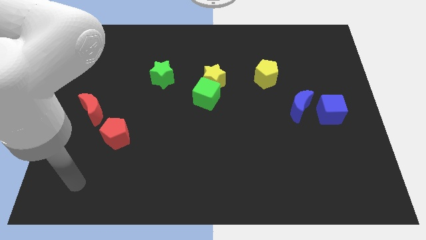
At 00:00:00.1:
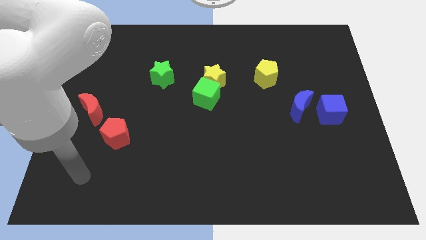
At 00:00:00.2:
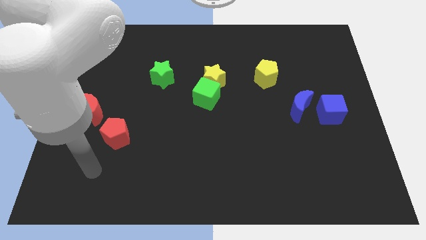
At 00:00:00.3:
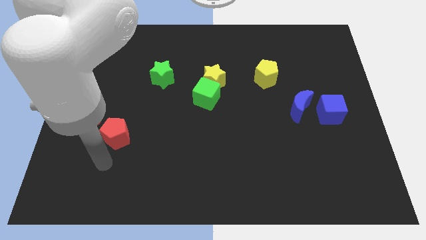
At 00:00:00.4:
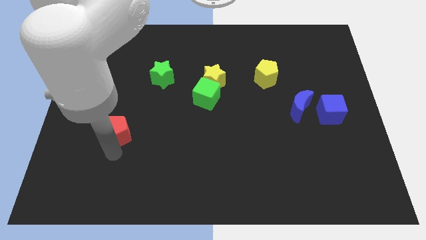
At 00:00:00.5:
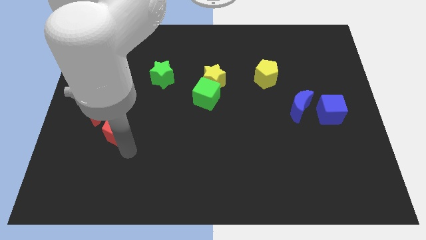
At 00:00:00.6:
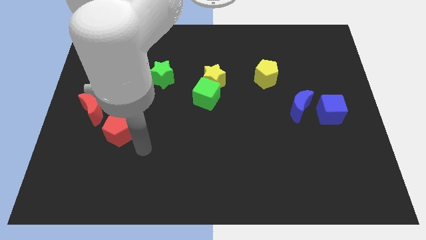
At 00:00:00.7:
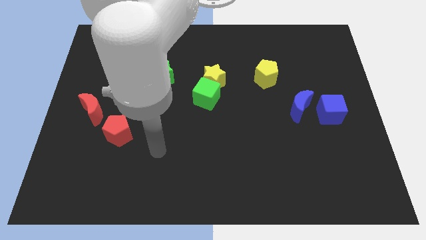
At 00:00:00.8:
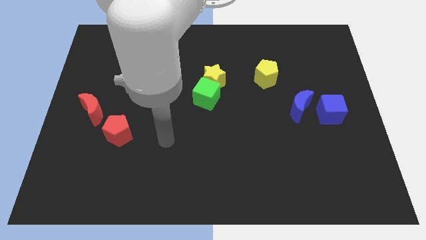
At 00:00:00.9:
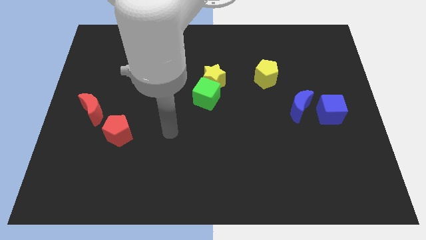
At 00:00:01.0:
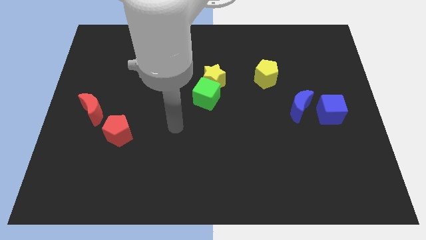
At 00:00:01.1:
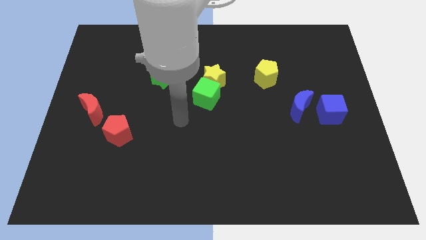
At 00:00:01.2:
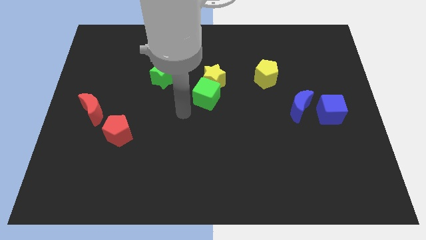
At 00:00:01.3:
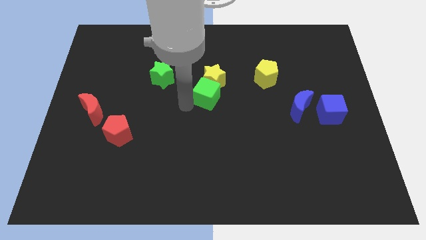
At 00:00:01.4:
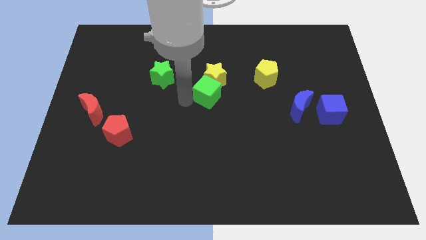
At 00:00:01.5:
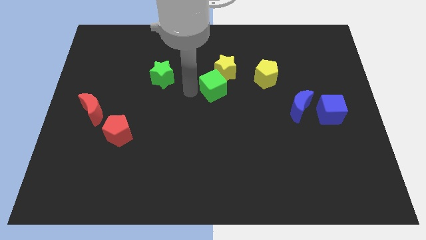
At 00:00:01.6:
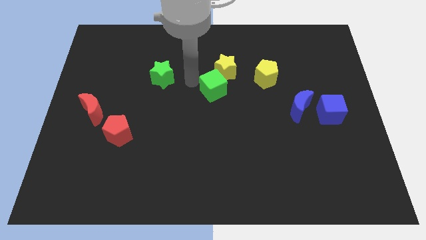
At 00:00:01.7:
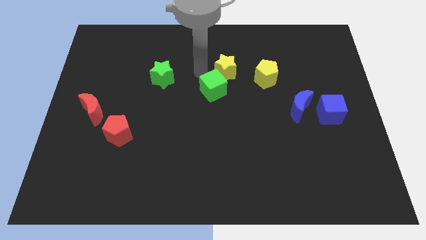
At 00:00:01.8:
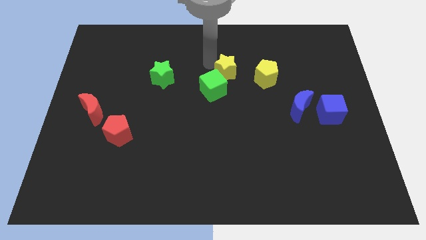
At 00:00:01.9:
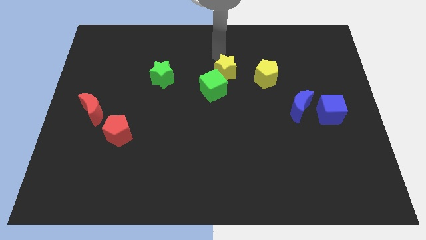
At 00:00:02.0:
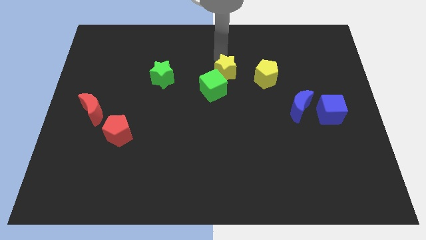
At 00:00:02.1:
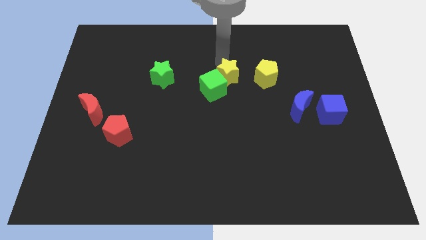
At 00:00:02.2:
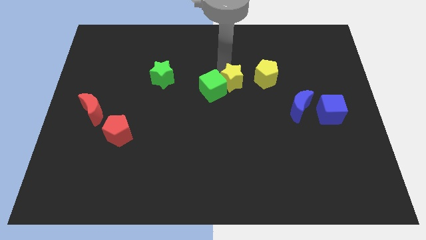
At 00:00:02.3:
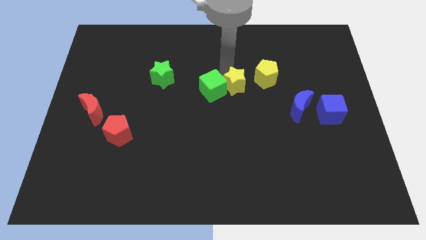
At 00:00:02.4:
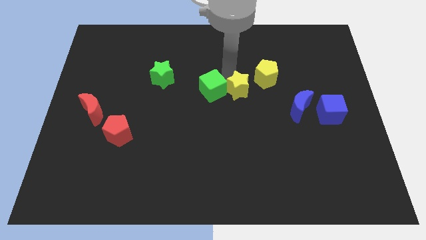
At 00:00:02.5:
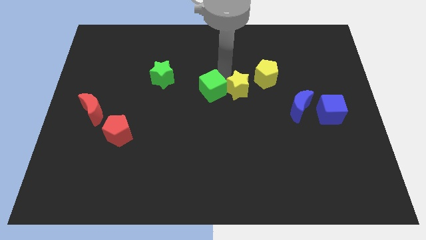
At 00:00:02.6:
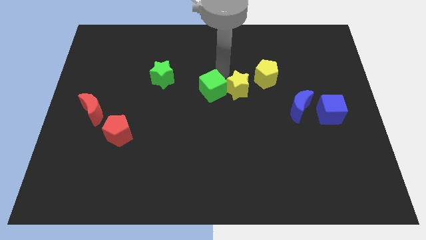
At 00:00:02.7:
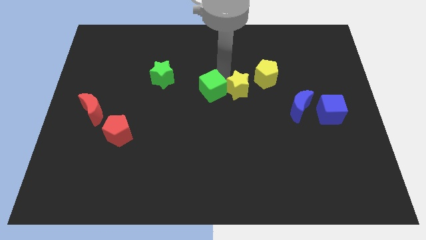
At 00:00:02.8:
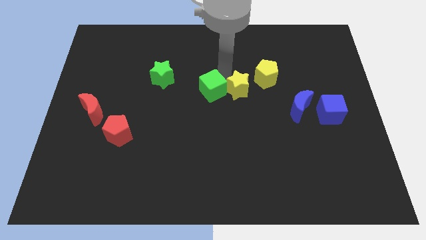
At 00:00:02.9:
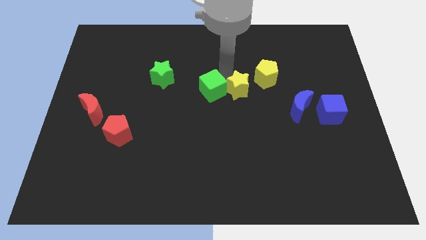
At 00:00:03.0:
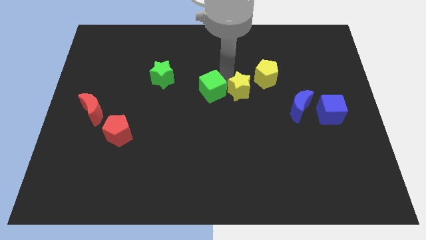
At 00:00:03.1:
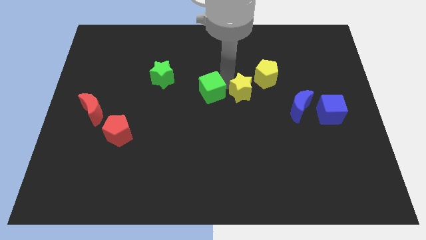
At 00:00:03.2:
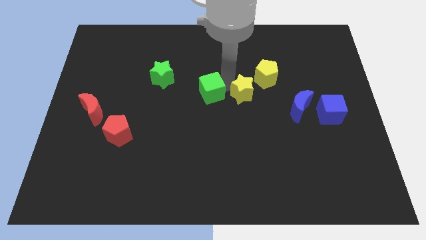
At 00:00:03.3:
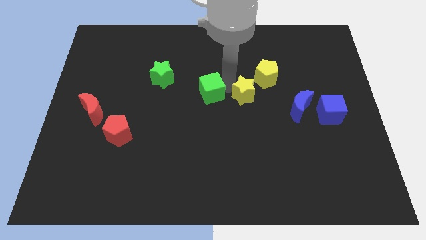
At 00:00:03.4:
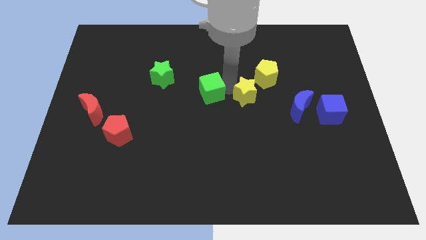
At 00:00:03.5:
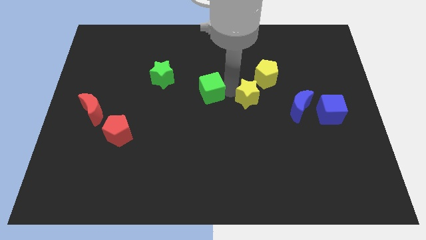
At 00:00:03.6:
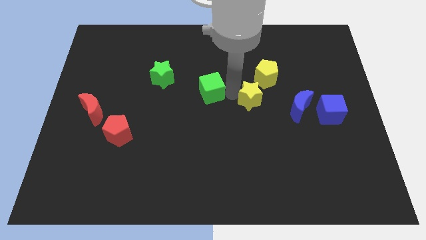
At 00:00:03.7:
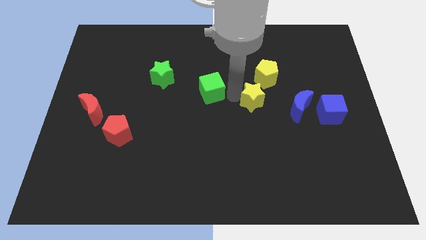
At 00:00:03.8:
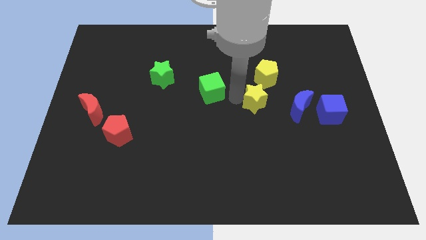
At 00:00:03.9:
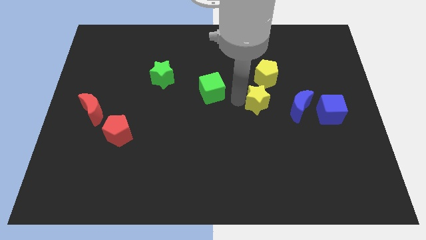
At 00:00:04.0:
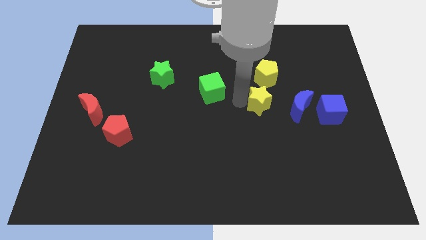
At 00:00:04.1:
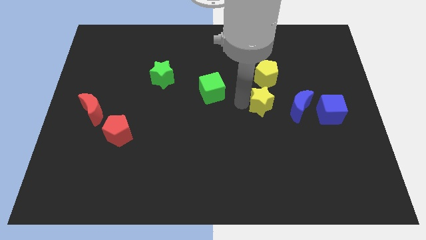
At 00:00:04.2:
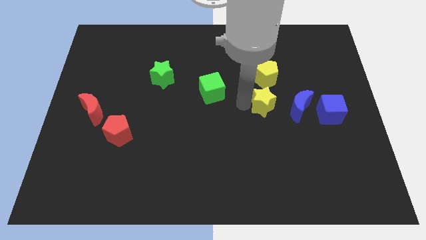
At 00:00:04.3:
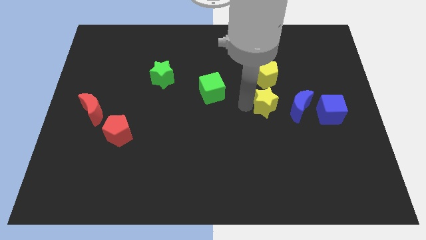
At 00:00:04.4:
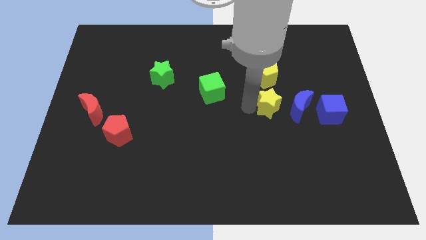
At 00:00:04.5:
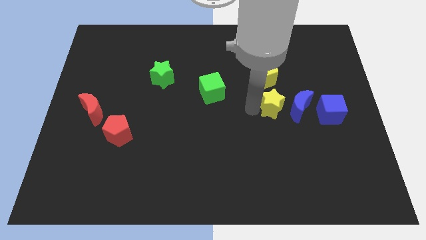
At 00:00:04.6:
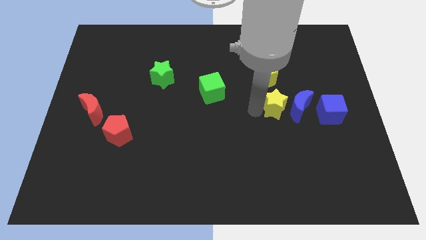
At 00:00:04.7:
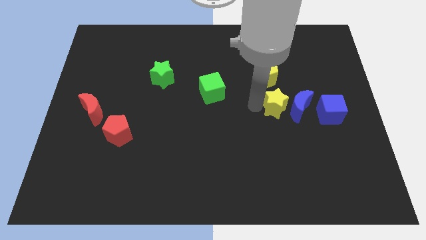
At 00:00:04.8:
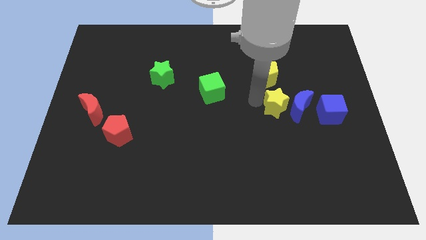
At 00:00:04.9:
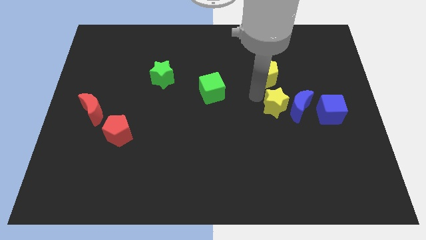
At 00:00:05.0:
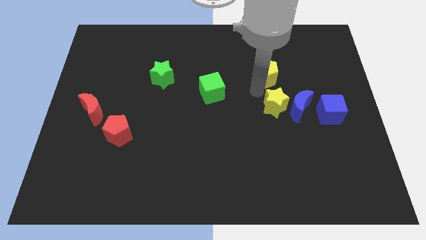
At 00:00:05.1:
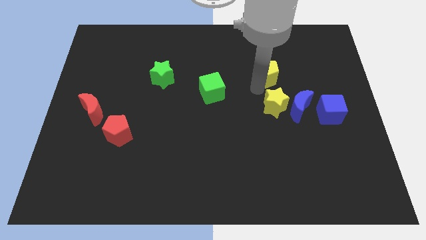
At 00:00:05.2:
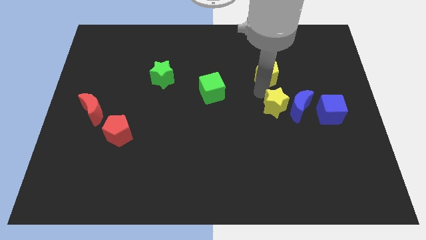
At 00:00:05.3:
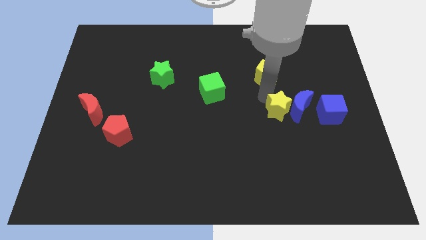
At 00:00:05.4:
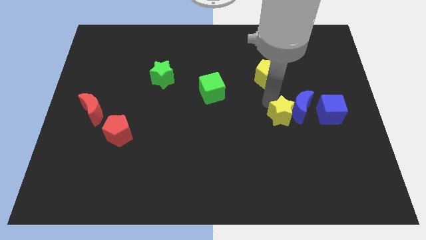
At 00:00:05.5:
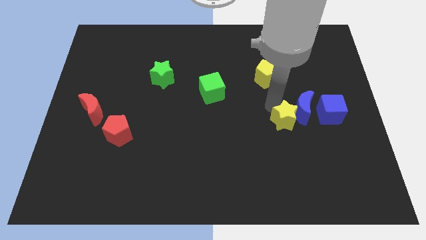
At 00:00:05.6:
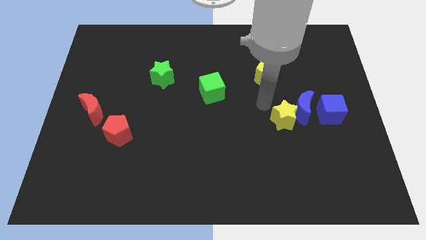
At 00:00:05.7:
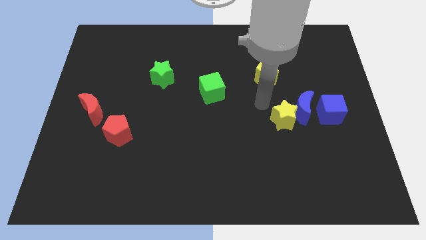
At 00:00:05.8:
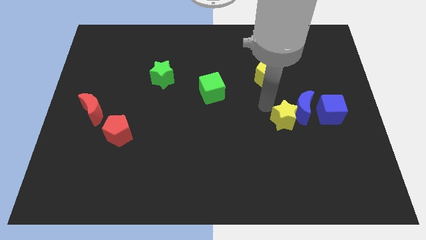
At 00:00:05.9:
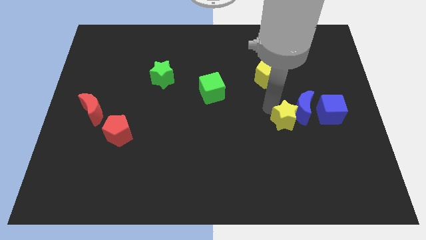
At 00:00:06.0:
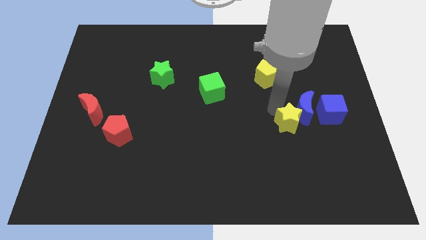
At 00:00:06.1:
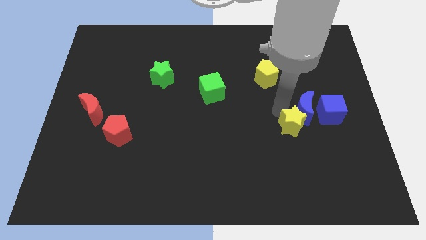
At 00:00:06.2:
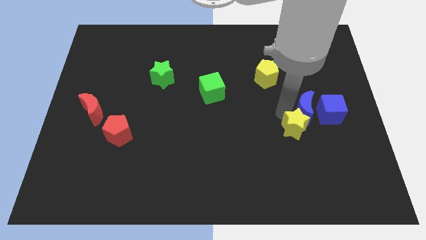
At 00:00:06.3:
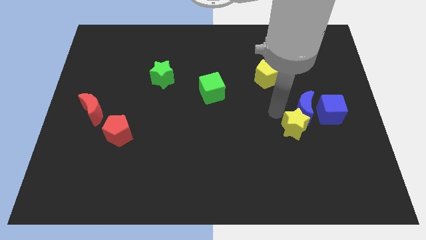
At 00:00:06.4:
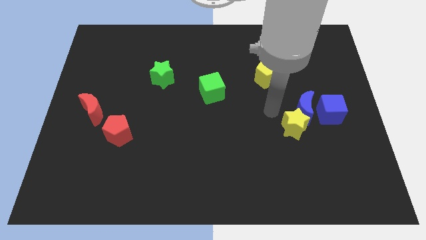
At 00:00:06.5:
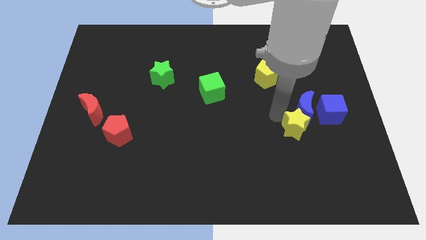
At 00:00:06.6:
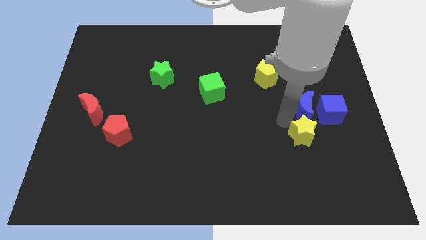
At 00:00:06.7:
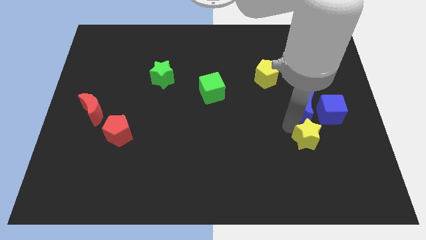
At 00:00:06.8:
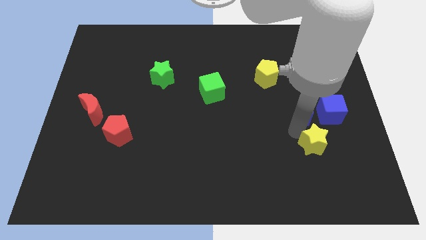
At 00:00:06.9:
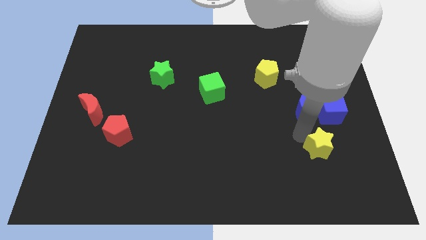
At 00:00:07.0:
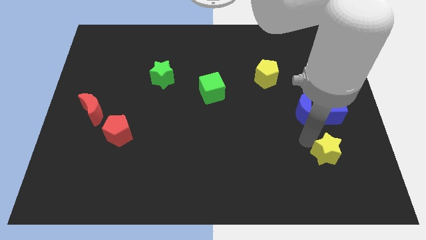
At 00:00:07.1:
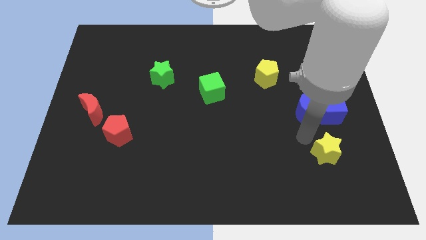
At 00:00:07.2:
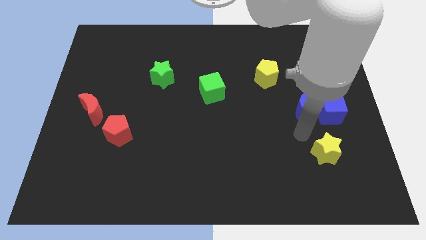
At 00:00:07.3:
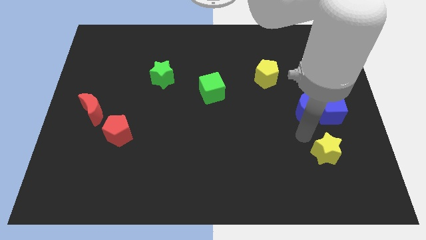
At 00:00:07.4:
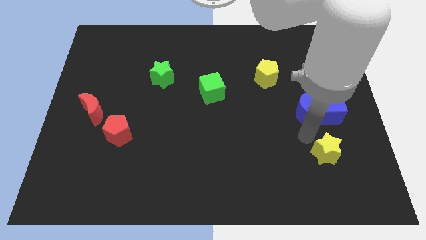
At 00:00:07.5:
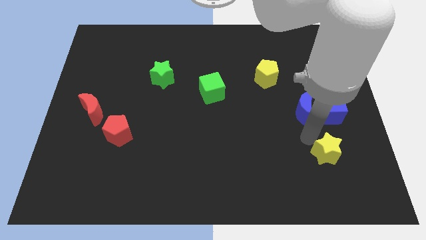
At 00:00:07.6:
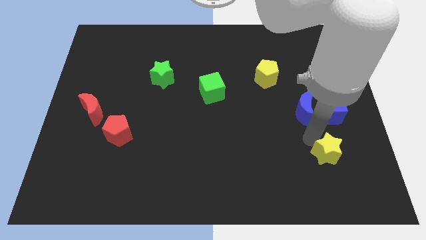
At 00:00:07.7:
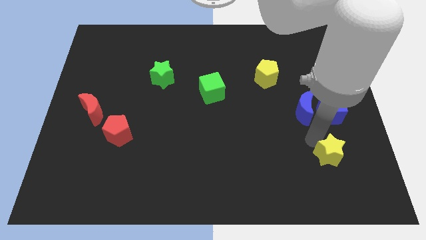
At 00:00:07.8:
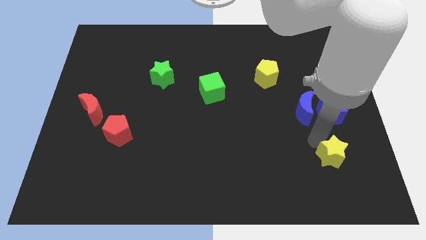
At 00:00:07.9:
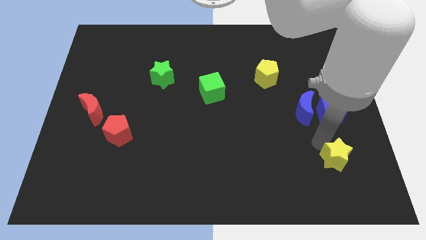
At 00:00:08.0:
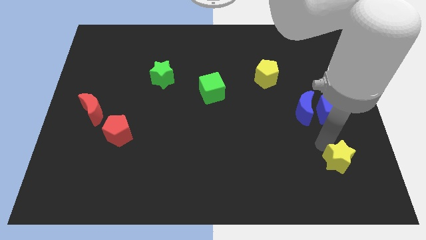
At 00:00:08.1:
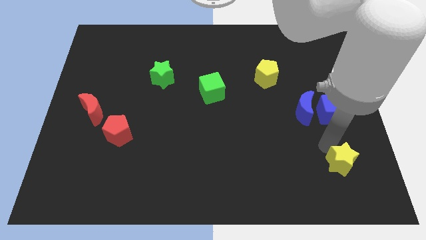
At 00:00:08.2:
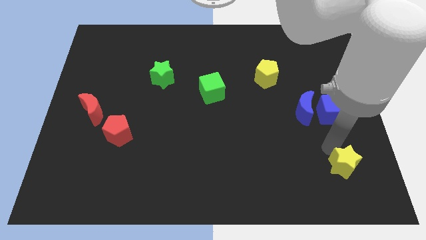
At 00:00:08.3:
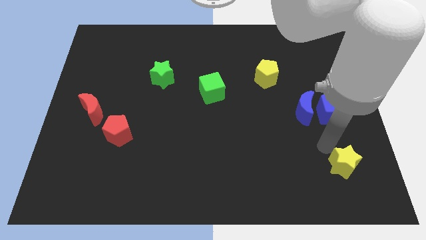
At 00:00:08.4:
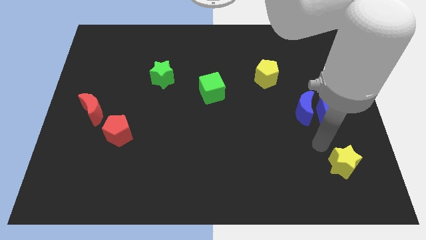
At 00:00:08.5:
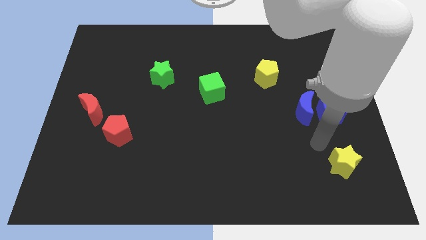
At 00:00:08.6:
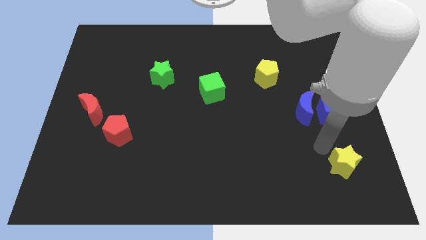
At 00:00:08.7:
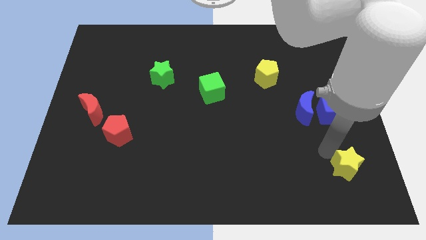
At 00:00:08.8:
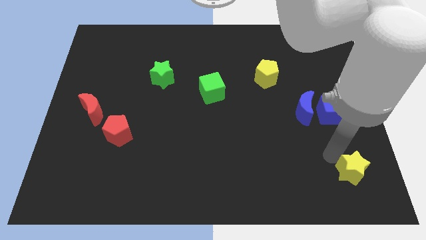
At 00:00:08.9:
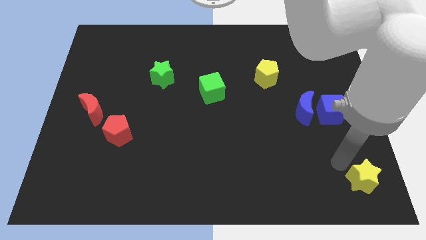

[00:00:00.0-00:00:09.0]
move the yellow star to the bottom right corner
